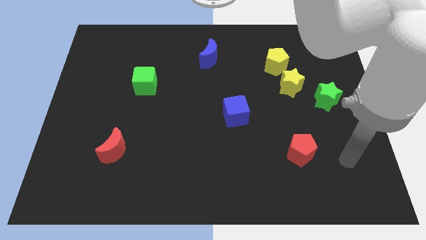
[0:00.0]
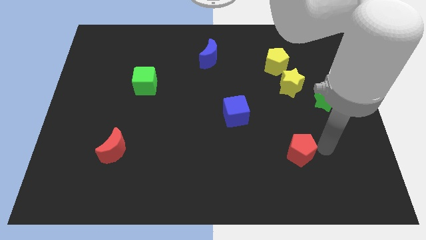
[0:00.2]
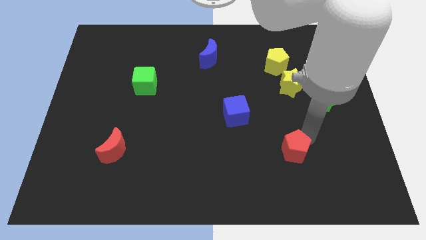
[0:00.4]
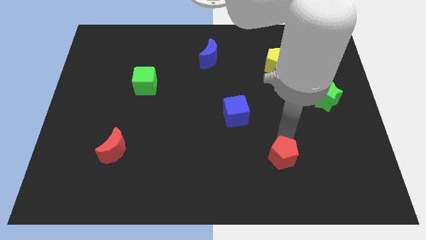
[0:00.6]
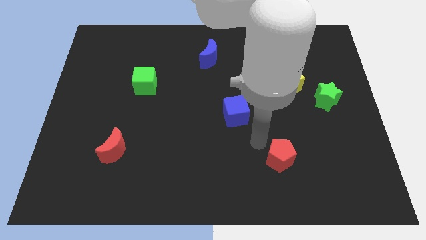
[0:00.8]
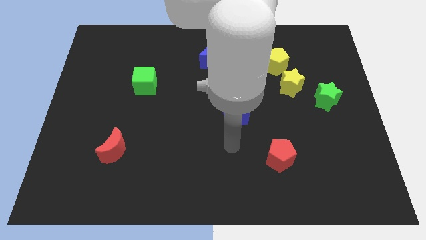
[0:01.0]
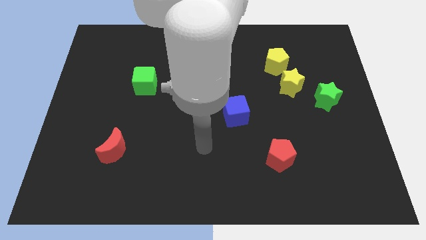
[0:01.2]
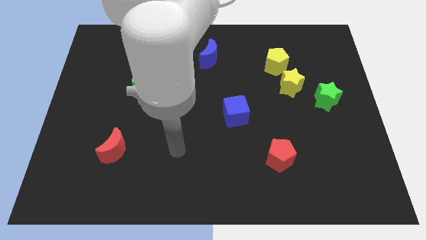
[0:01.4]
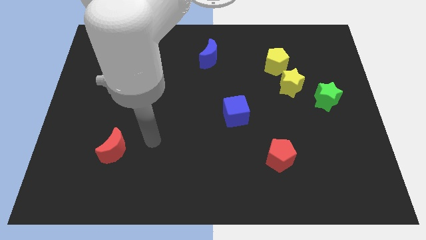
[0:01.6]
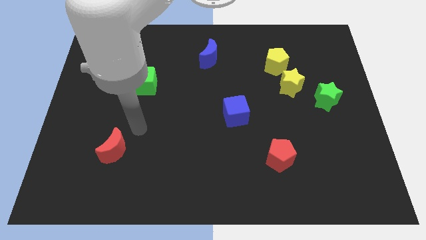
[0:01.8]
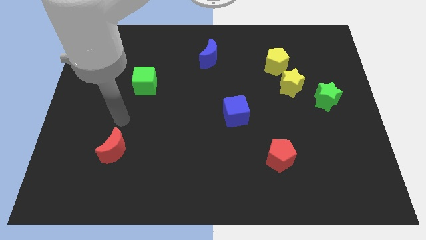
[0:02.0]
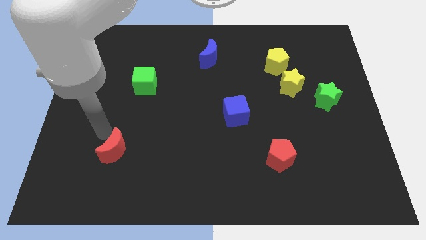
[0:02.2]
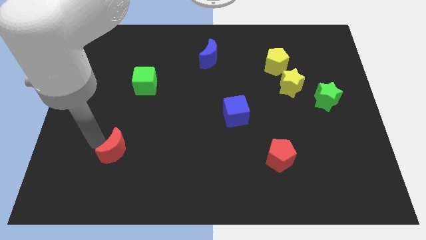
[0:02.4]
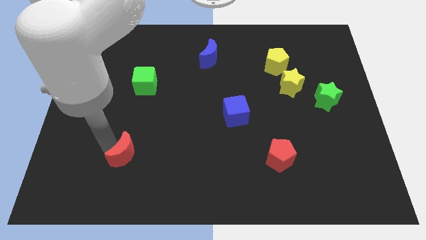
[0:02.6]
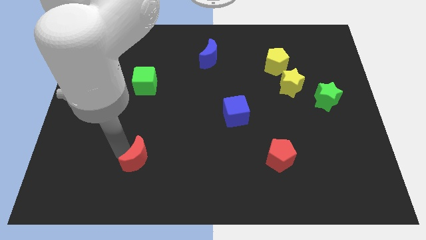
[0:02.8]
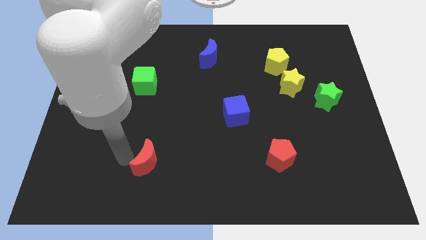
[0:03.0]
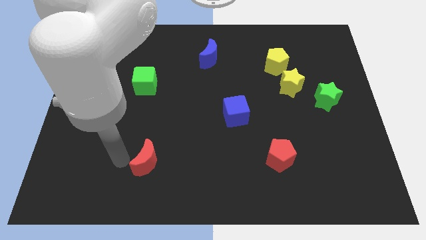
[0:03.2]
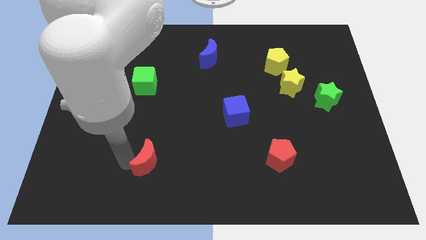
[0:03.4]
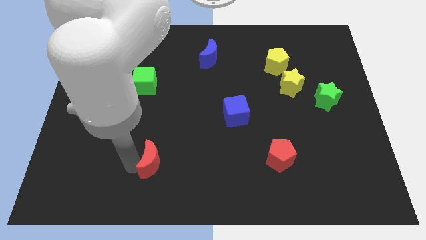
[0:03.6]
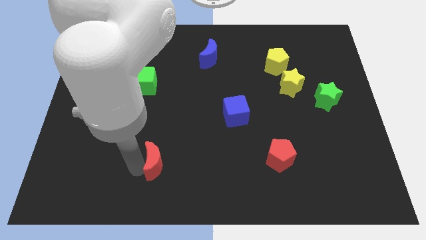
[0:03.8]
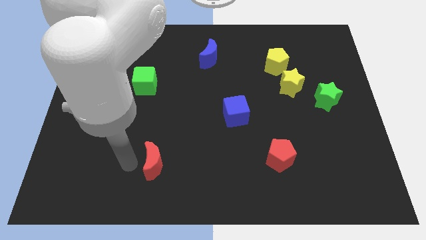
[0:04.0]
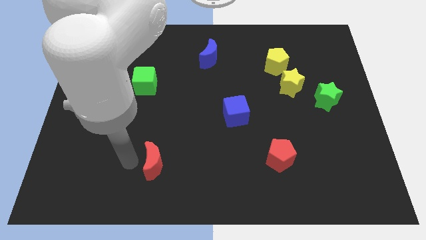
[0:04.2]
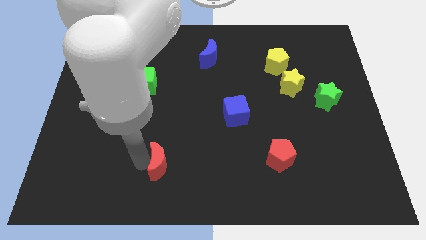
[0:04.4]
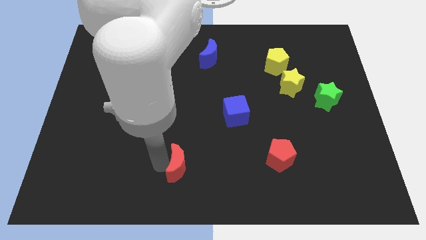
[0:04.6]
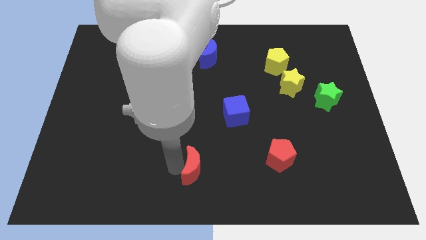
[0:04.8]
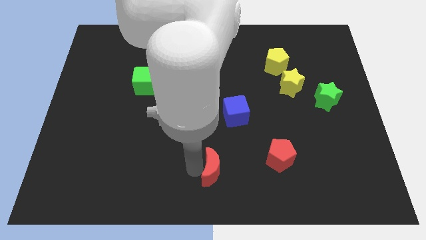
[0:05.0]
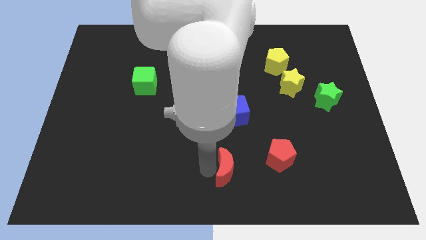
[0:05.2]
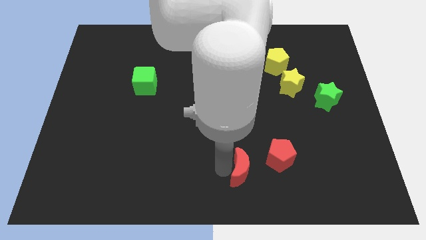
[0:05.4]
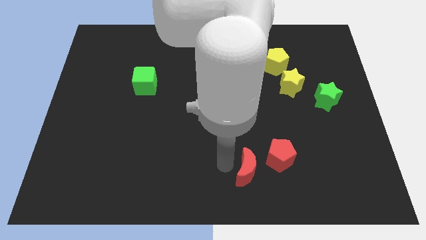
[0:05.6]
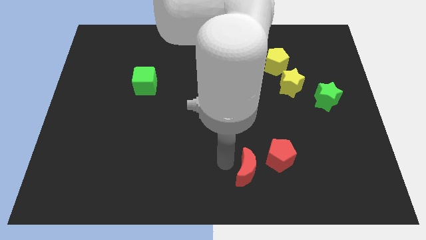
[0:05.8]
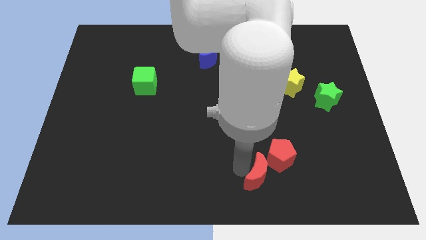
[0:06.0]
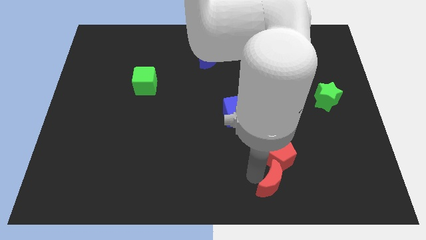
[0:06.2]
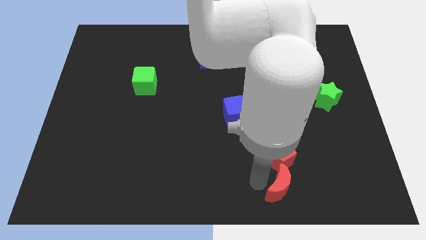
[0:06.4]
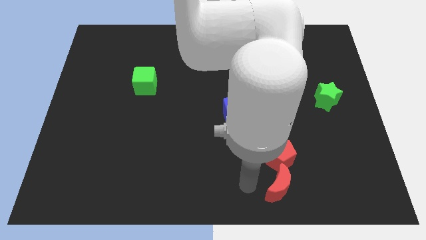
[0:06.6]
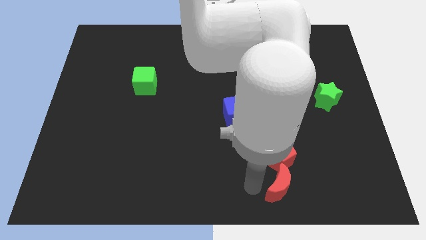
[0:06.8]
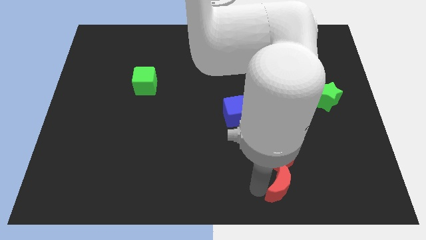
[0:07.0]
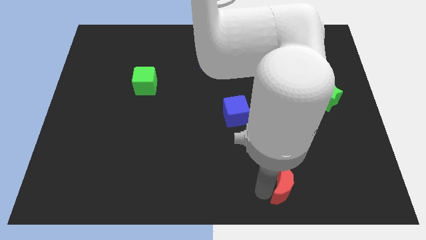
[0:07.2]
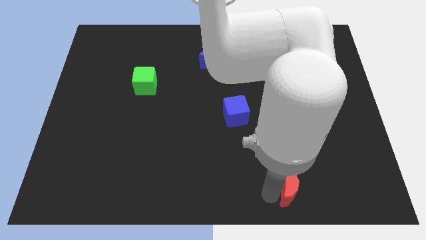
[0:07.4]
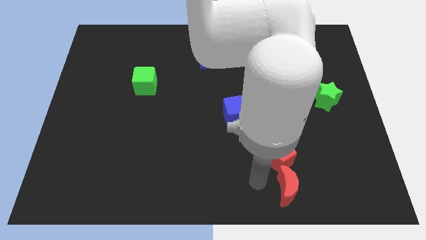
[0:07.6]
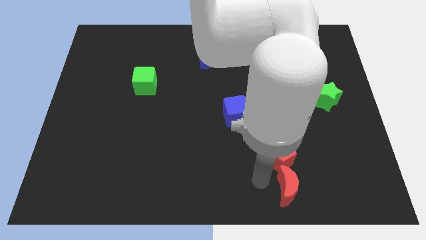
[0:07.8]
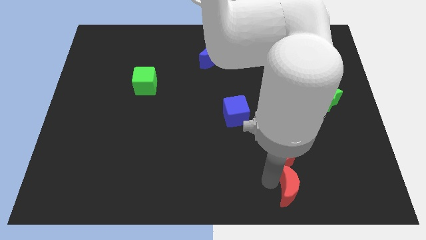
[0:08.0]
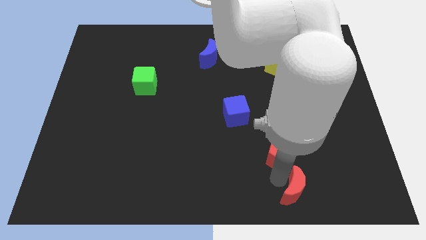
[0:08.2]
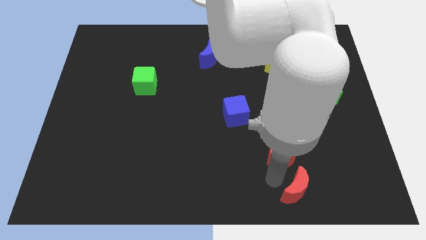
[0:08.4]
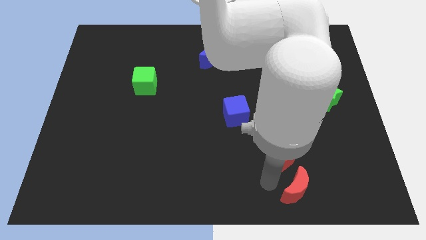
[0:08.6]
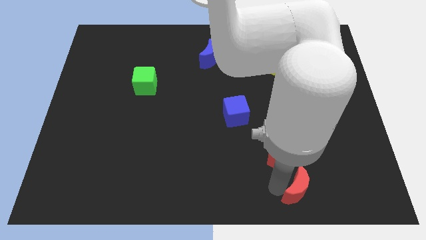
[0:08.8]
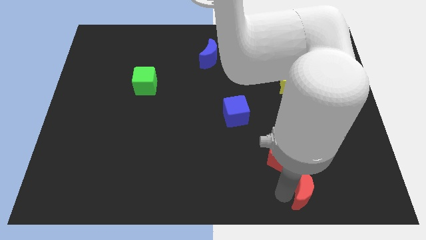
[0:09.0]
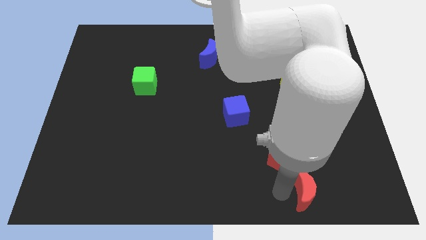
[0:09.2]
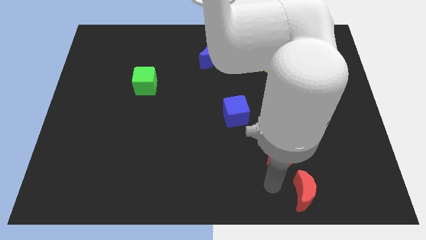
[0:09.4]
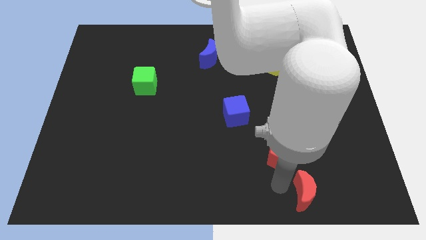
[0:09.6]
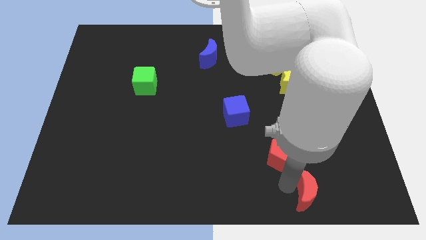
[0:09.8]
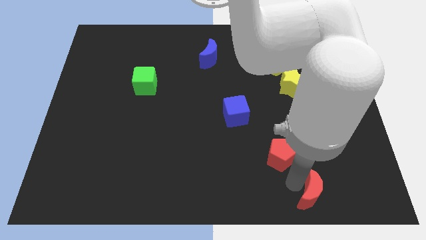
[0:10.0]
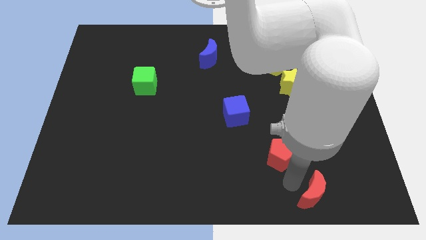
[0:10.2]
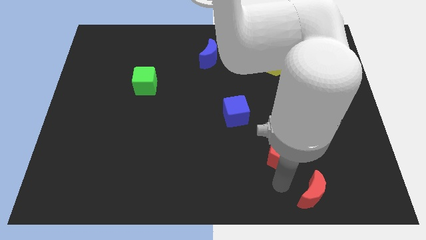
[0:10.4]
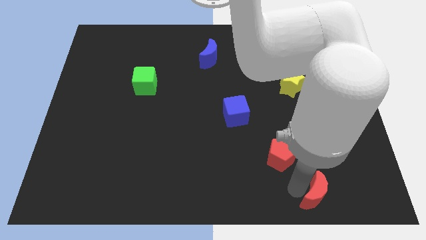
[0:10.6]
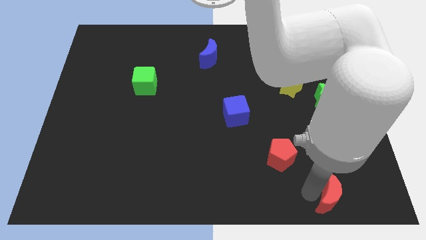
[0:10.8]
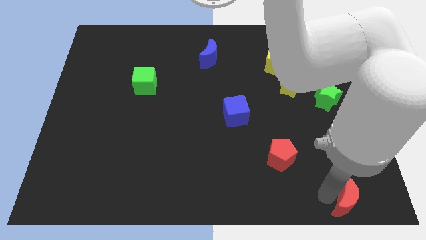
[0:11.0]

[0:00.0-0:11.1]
put the red moon to the bottom right corner

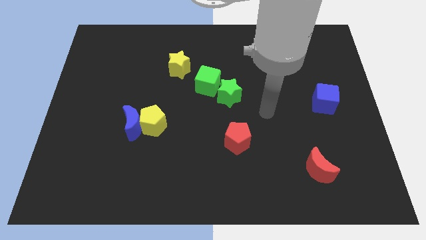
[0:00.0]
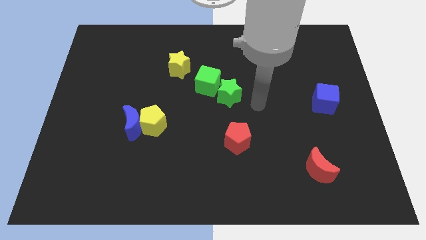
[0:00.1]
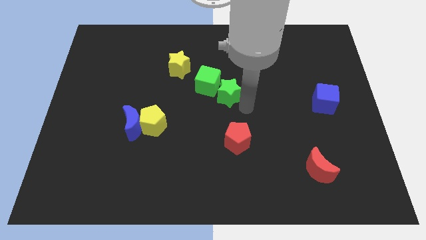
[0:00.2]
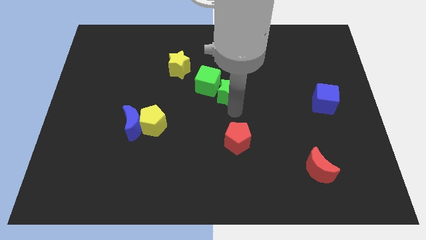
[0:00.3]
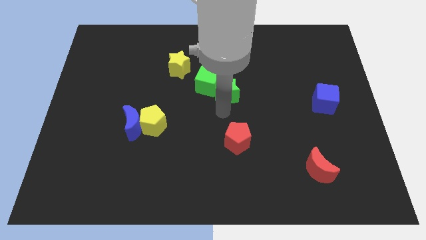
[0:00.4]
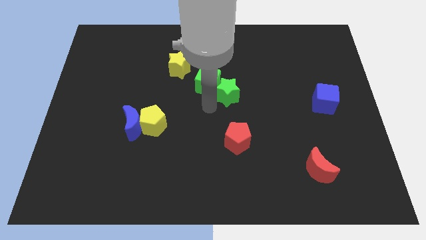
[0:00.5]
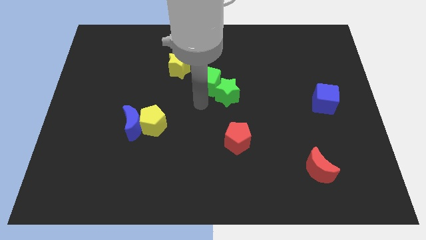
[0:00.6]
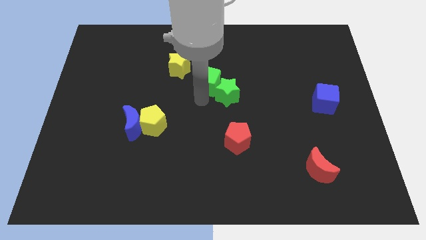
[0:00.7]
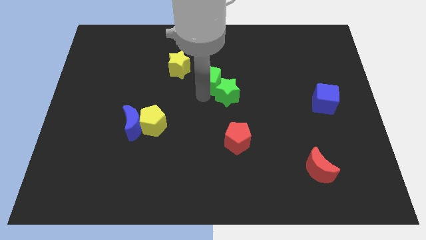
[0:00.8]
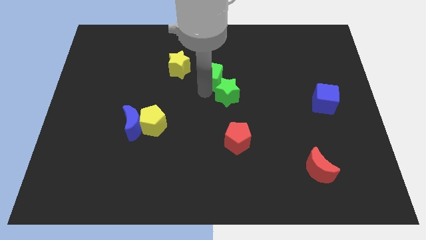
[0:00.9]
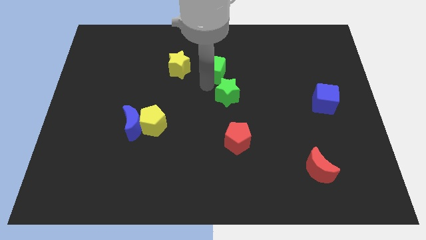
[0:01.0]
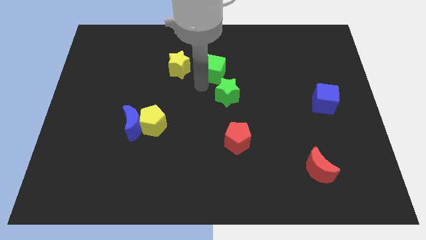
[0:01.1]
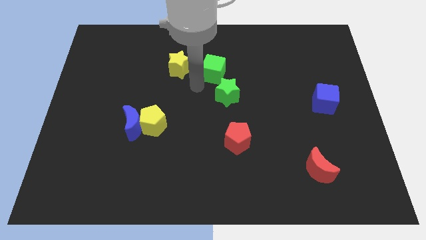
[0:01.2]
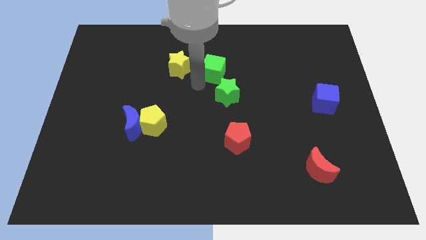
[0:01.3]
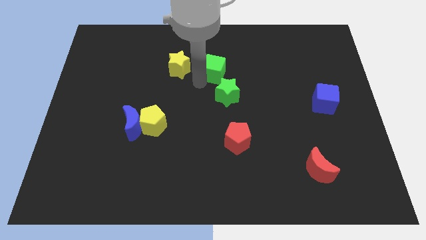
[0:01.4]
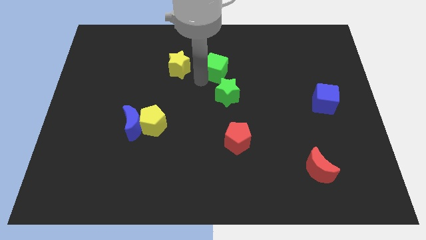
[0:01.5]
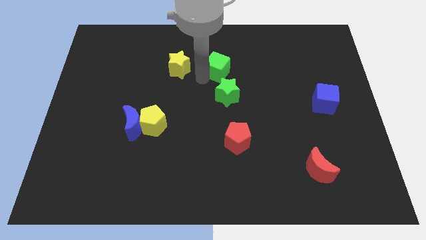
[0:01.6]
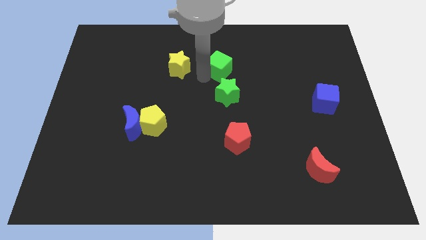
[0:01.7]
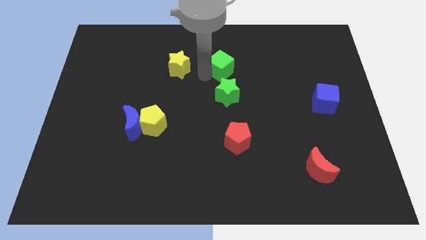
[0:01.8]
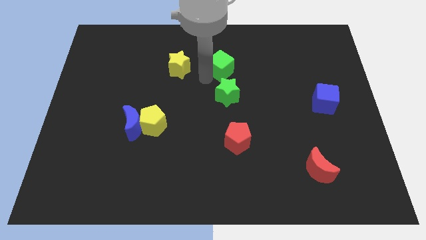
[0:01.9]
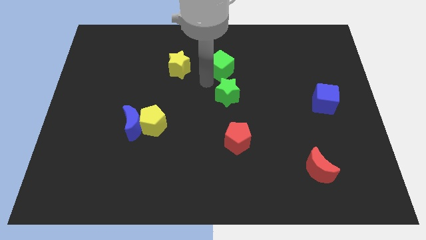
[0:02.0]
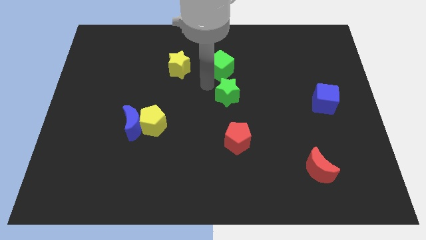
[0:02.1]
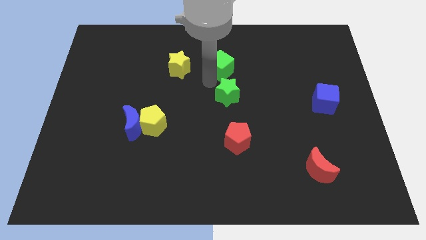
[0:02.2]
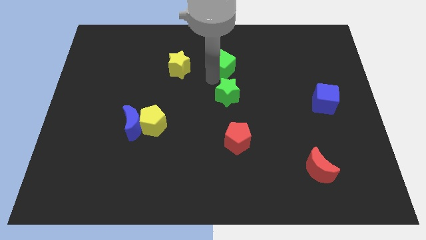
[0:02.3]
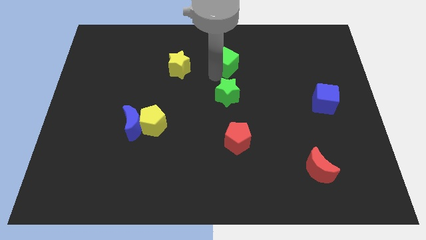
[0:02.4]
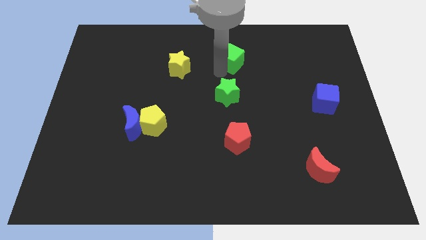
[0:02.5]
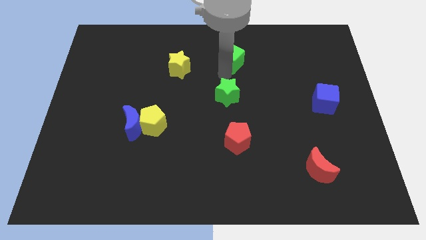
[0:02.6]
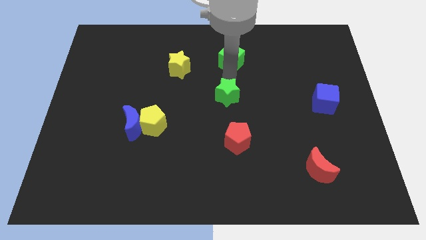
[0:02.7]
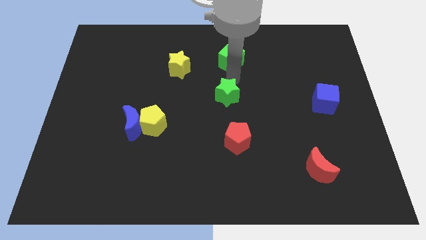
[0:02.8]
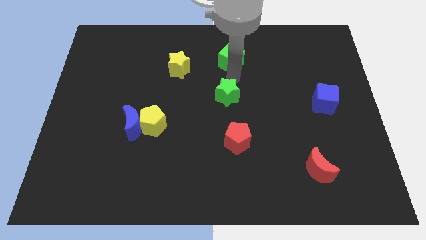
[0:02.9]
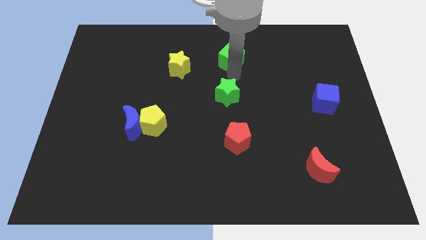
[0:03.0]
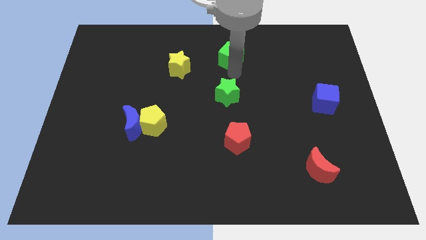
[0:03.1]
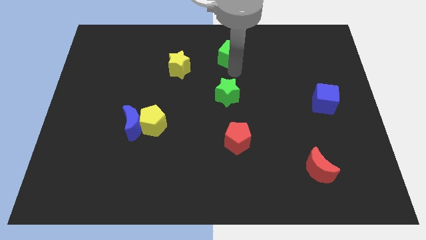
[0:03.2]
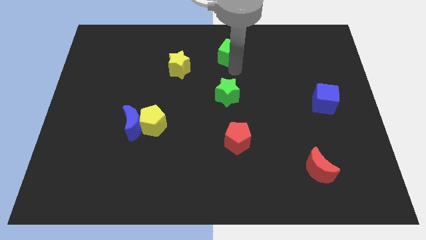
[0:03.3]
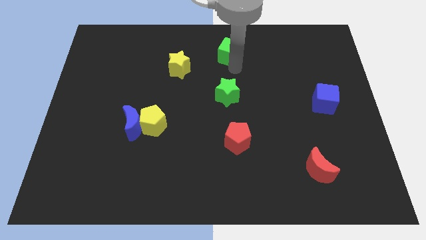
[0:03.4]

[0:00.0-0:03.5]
push the green cube to the towards your base
